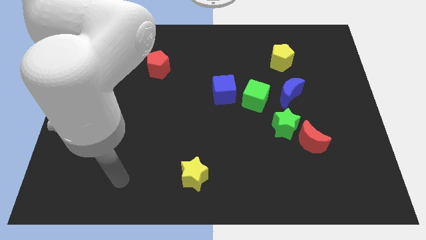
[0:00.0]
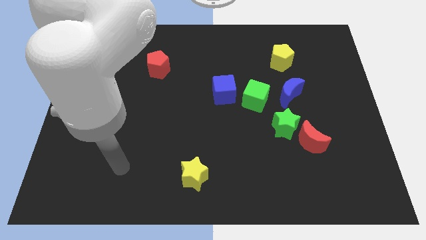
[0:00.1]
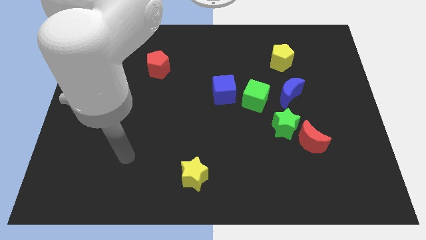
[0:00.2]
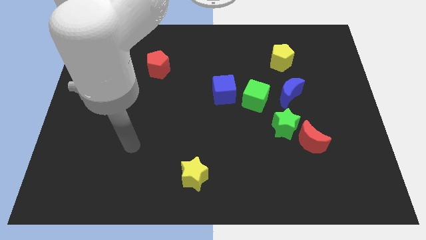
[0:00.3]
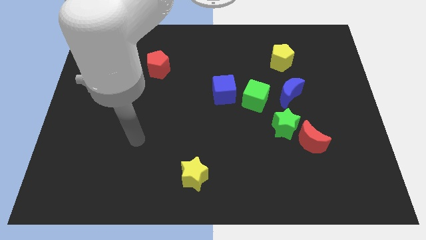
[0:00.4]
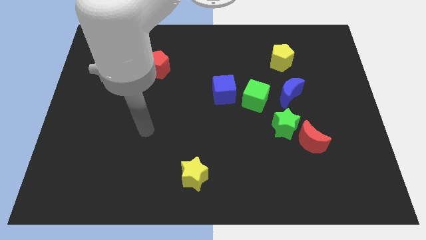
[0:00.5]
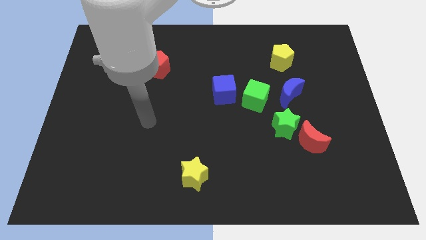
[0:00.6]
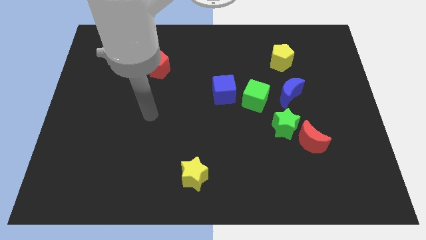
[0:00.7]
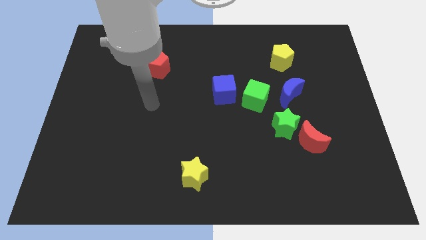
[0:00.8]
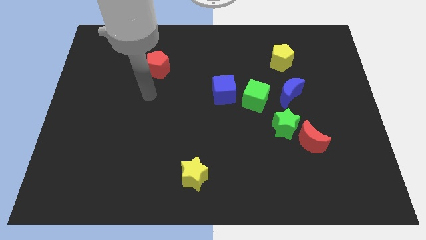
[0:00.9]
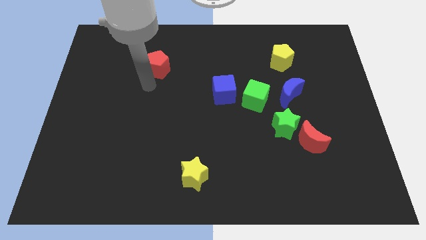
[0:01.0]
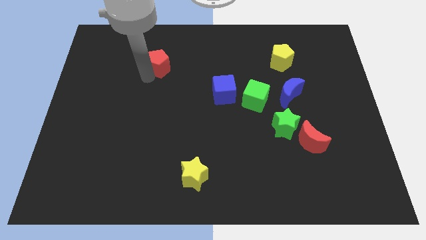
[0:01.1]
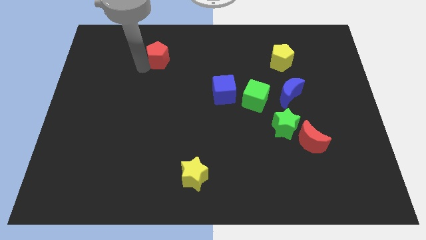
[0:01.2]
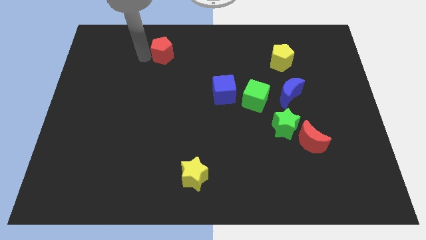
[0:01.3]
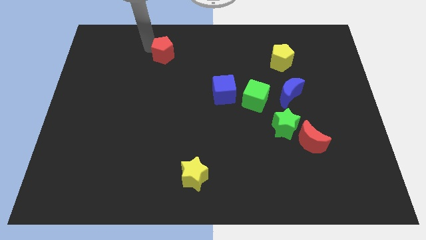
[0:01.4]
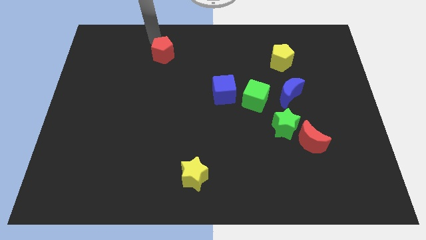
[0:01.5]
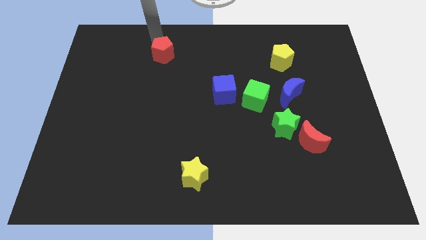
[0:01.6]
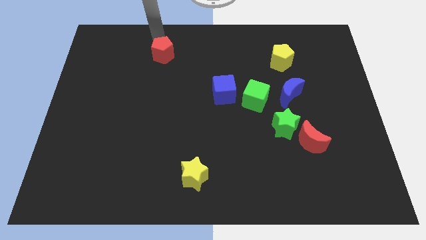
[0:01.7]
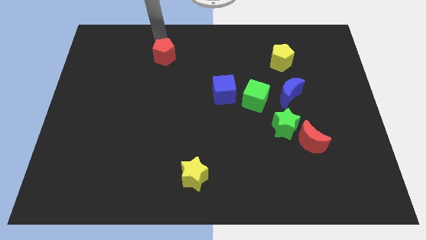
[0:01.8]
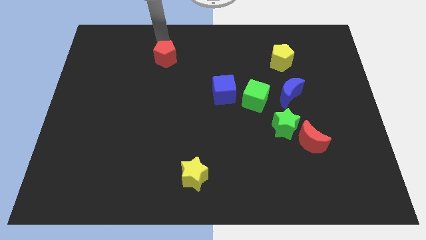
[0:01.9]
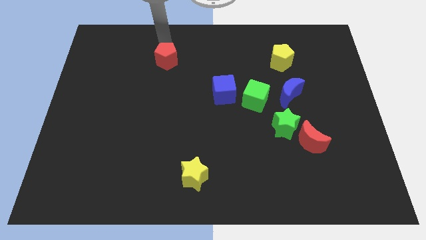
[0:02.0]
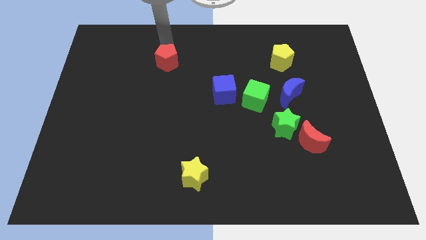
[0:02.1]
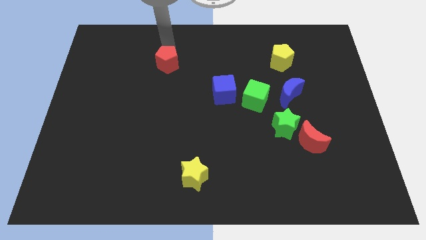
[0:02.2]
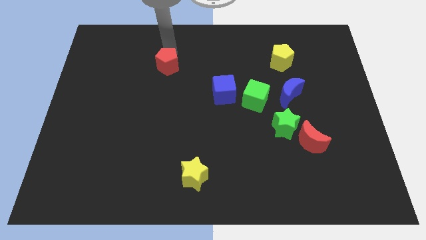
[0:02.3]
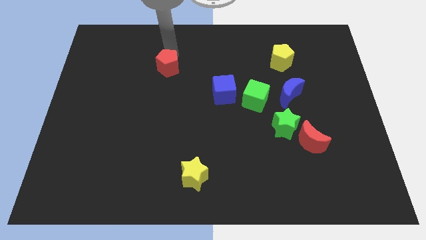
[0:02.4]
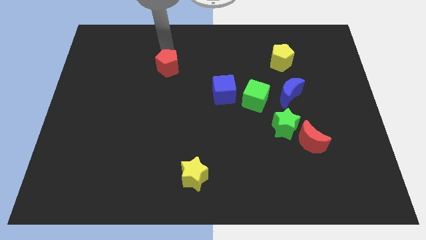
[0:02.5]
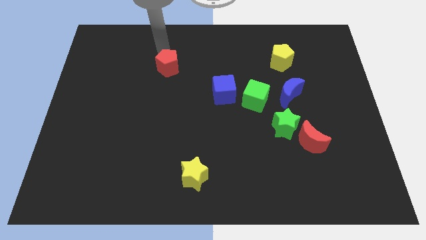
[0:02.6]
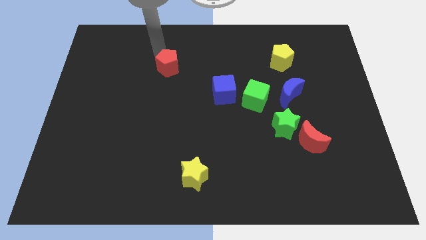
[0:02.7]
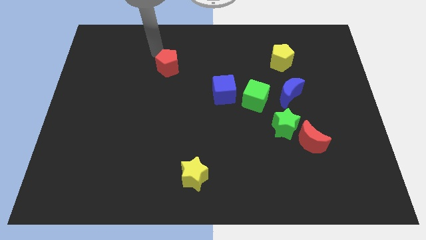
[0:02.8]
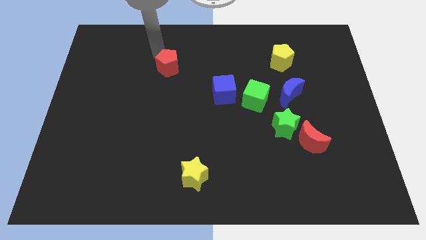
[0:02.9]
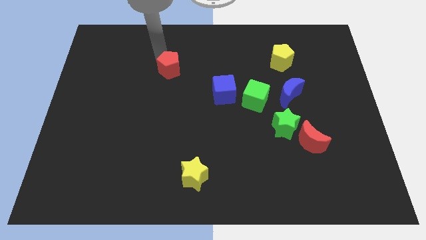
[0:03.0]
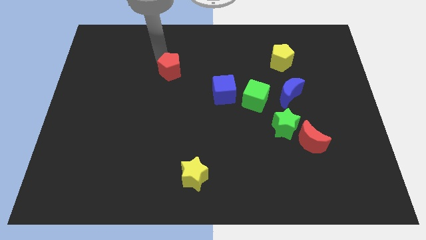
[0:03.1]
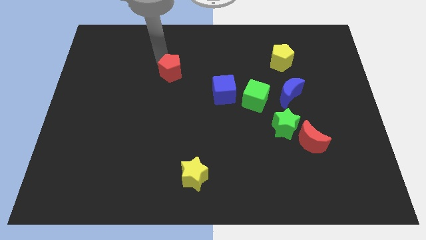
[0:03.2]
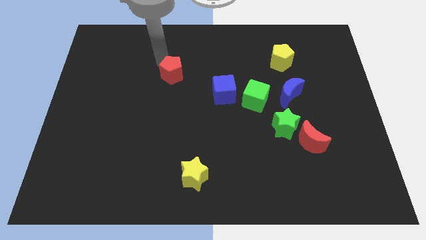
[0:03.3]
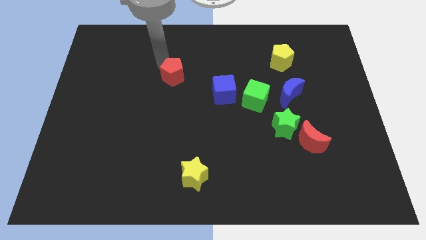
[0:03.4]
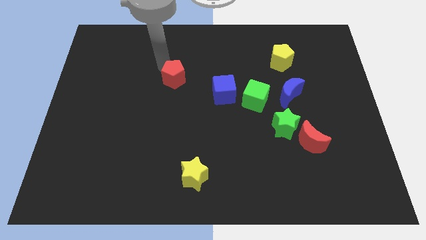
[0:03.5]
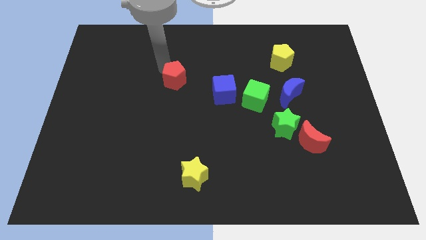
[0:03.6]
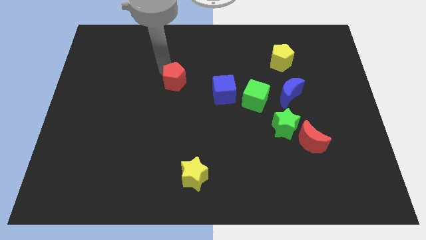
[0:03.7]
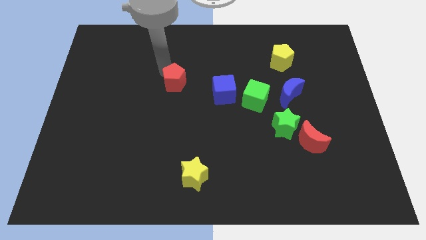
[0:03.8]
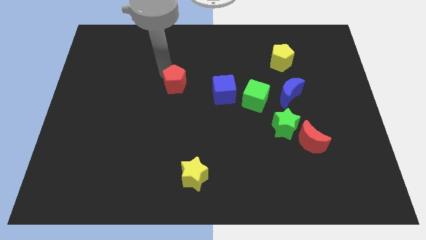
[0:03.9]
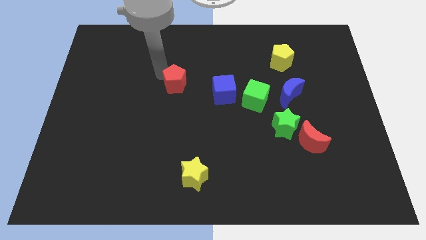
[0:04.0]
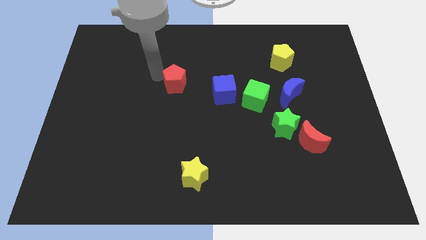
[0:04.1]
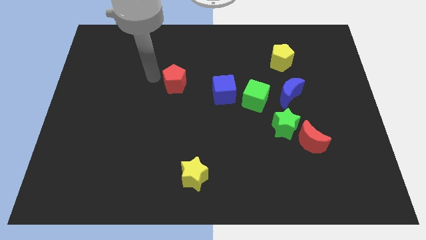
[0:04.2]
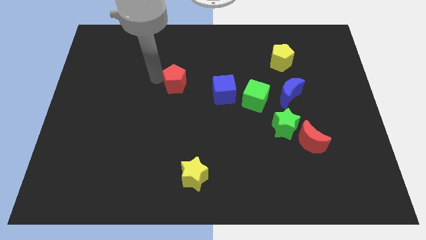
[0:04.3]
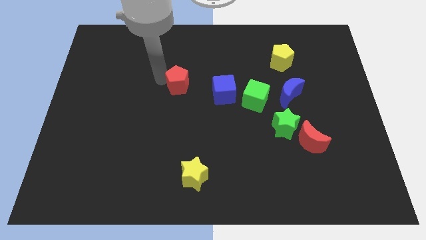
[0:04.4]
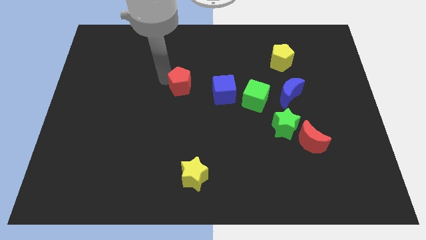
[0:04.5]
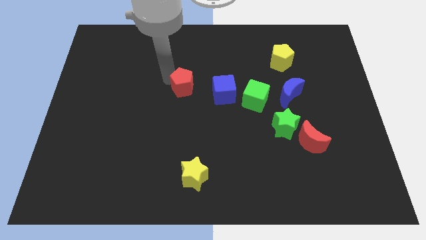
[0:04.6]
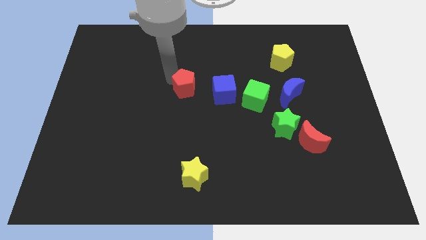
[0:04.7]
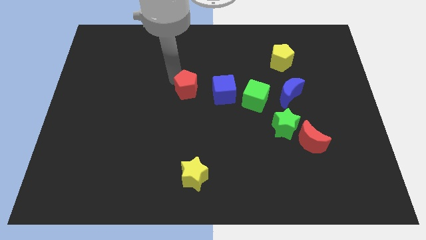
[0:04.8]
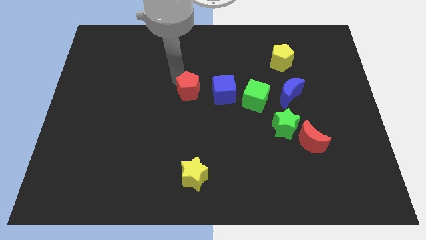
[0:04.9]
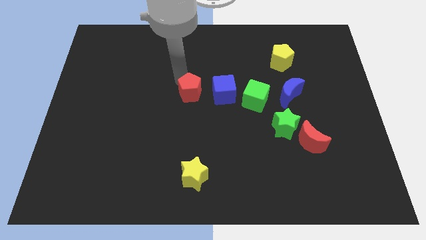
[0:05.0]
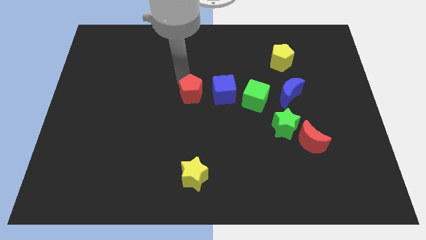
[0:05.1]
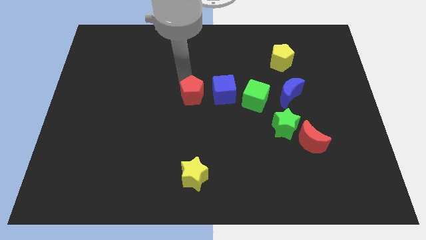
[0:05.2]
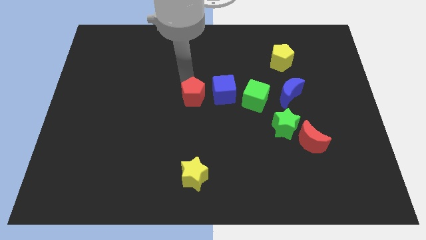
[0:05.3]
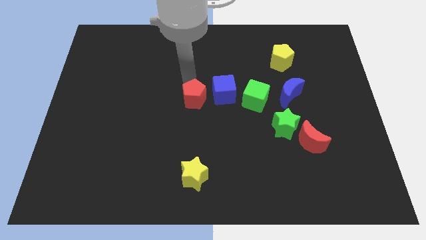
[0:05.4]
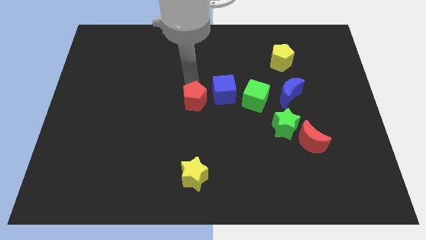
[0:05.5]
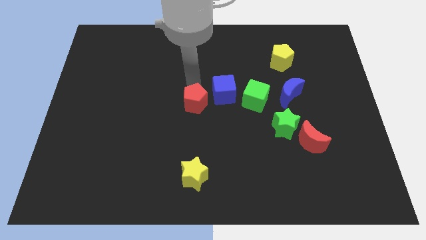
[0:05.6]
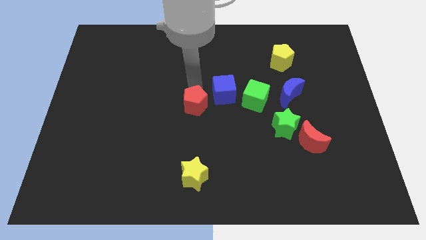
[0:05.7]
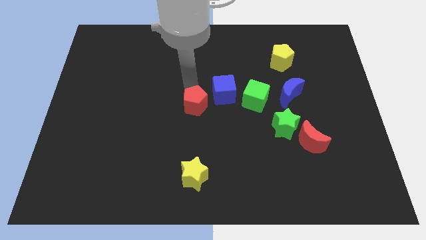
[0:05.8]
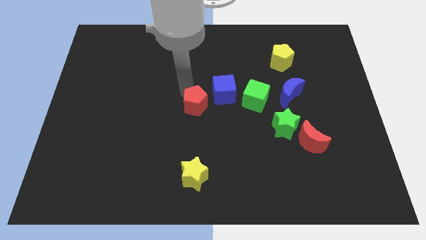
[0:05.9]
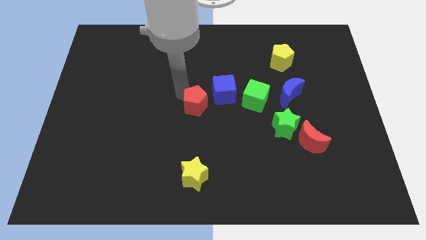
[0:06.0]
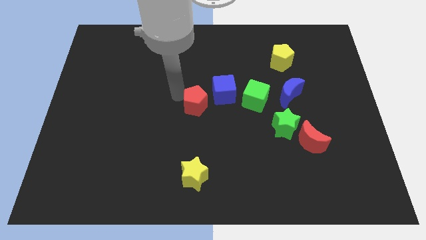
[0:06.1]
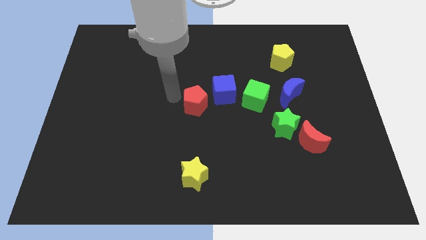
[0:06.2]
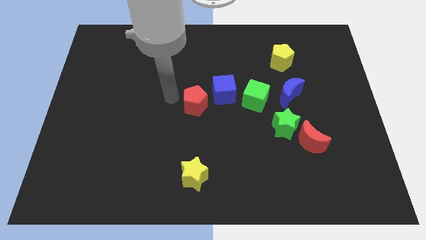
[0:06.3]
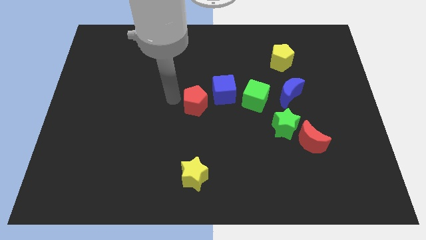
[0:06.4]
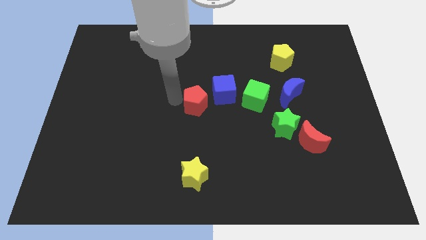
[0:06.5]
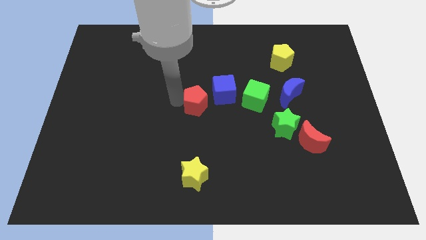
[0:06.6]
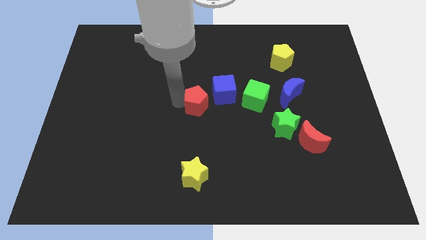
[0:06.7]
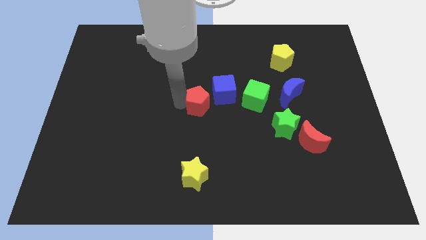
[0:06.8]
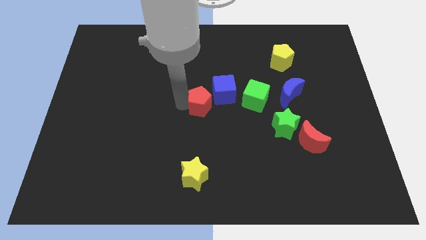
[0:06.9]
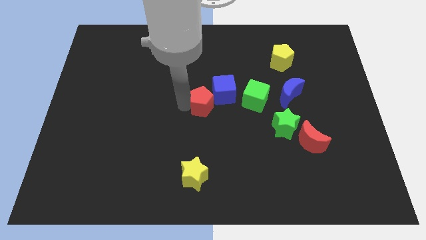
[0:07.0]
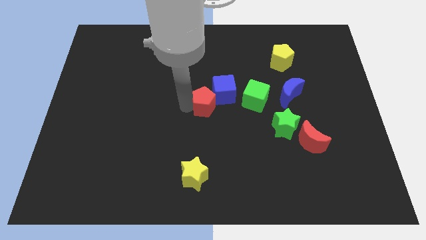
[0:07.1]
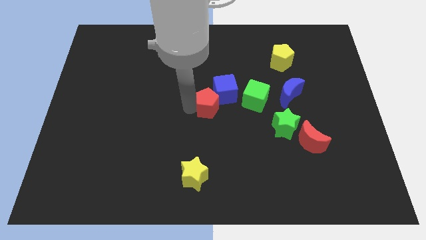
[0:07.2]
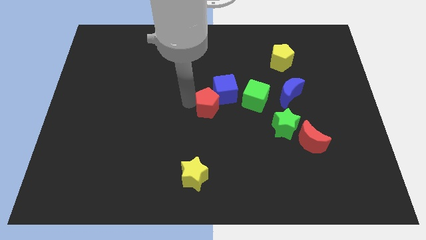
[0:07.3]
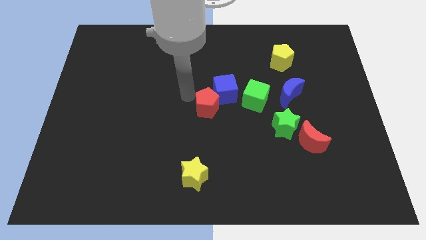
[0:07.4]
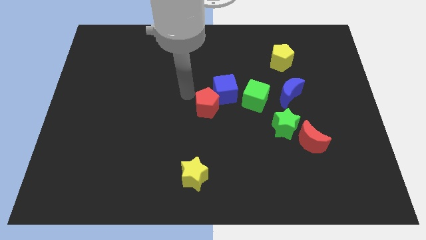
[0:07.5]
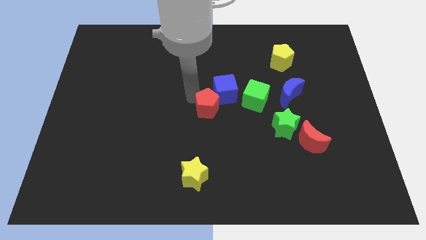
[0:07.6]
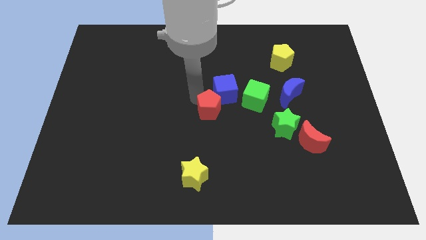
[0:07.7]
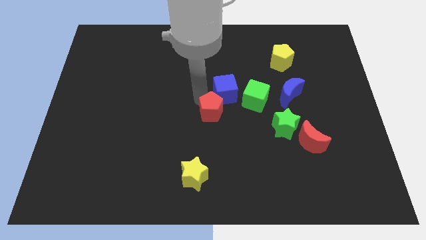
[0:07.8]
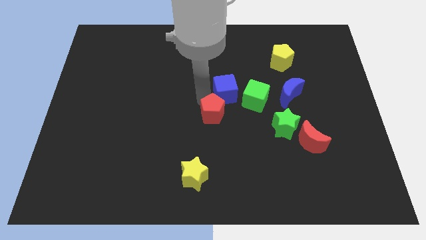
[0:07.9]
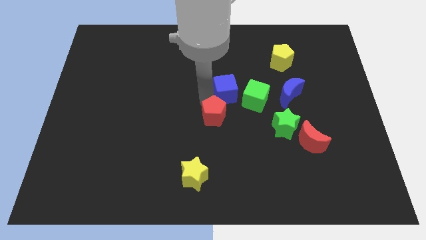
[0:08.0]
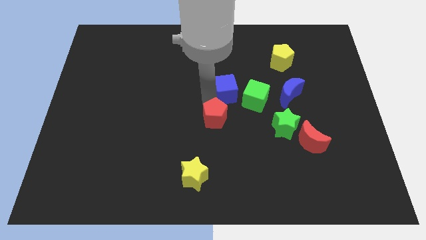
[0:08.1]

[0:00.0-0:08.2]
push the red pentagon to the left of the green star
